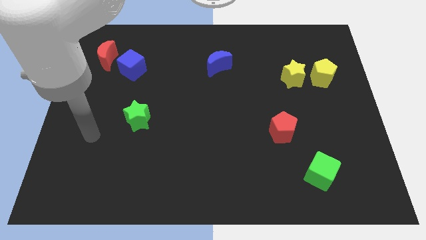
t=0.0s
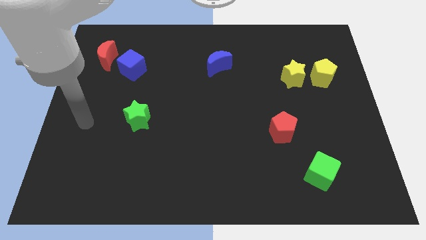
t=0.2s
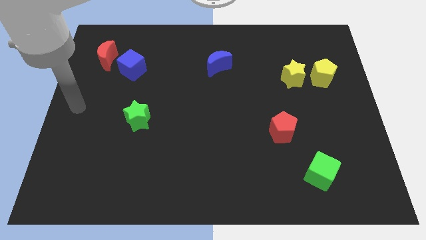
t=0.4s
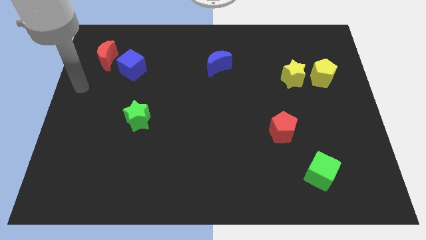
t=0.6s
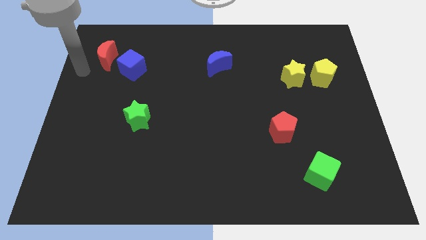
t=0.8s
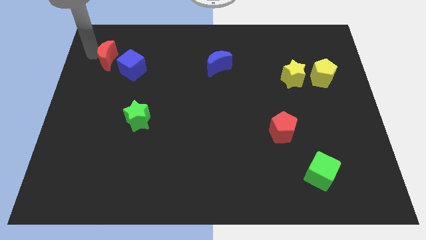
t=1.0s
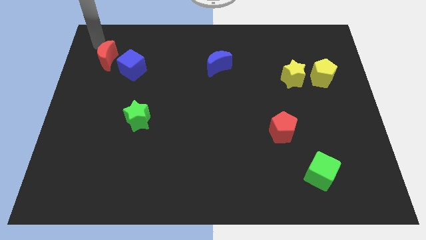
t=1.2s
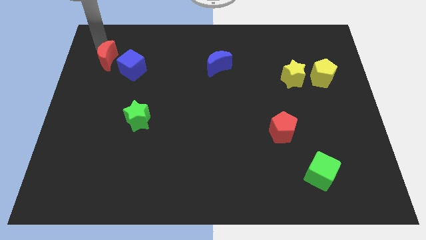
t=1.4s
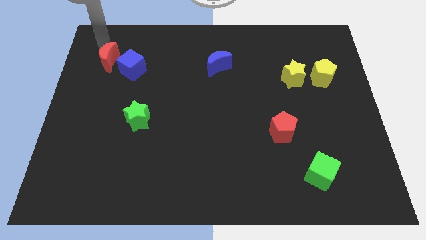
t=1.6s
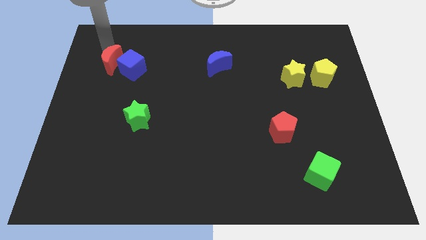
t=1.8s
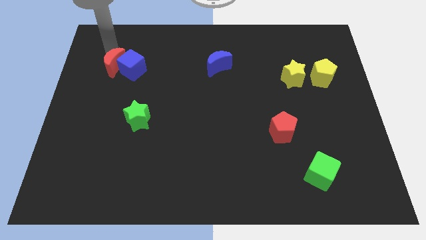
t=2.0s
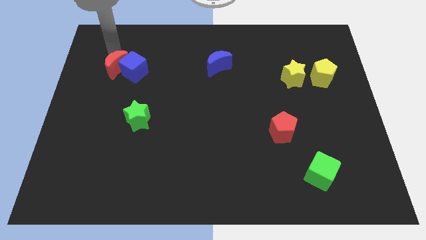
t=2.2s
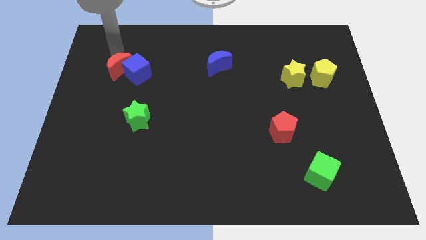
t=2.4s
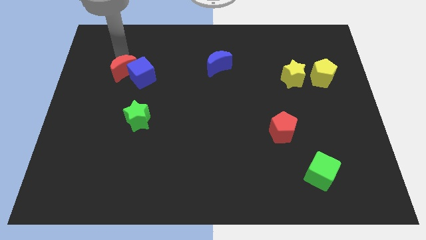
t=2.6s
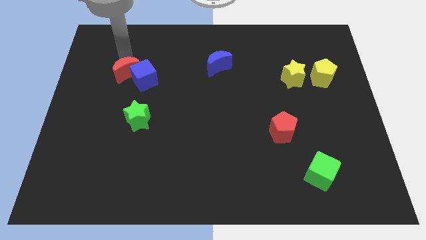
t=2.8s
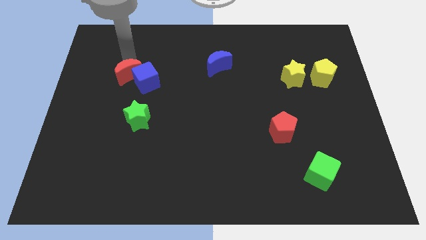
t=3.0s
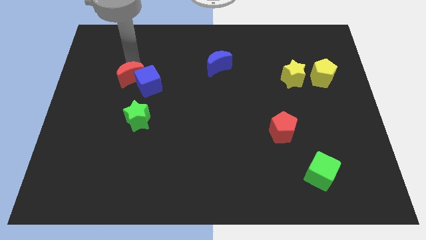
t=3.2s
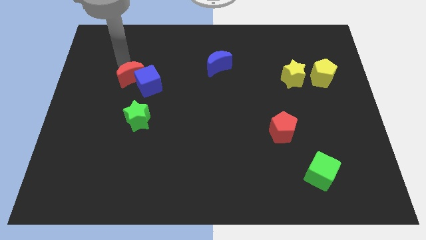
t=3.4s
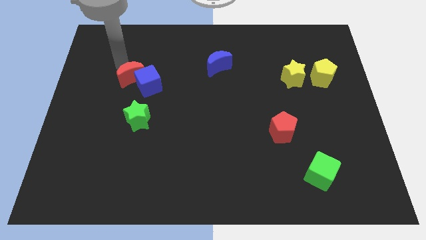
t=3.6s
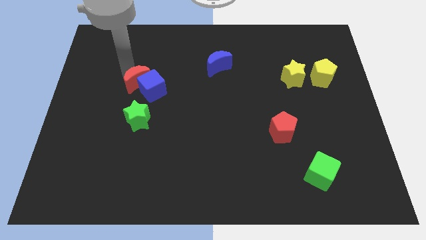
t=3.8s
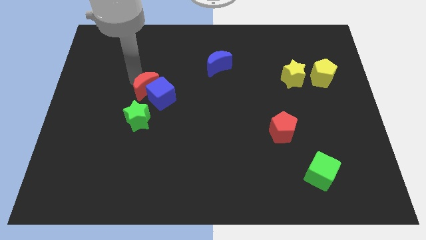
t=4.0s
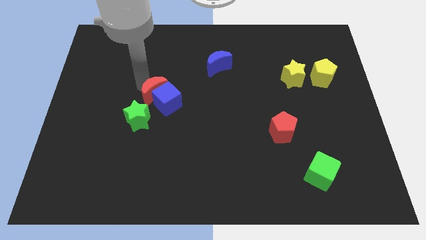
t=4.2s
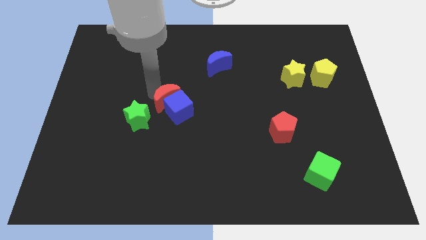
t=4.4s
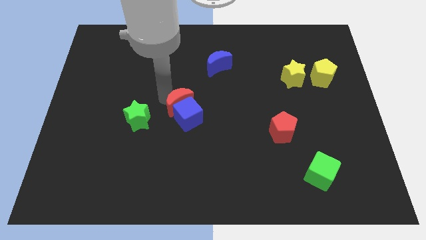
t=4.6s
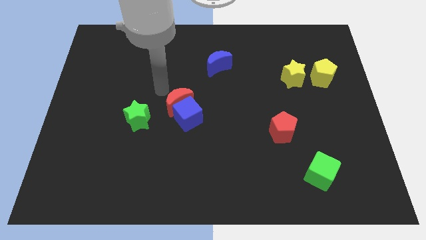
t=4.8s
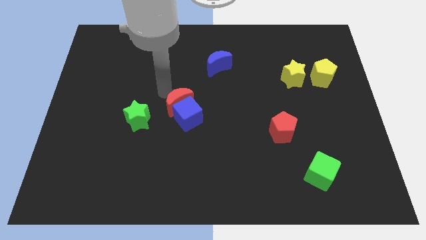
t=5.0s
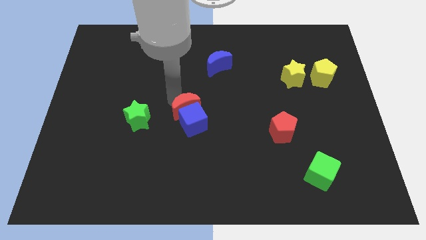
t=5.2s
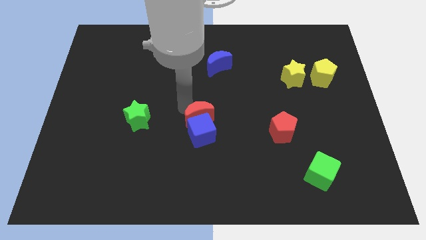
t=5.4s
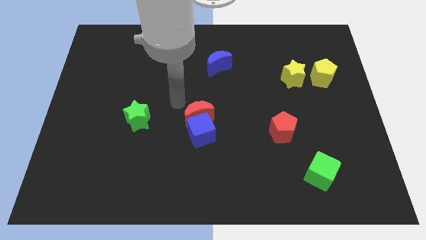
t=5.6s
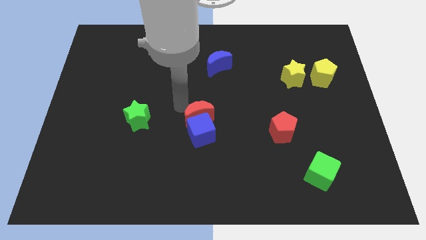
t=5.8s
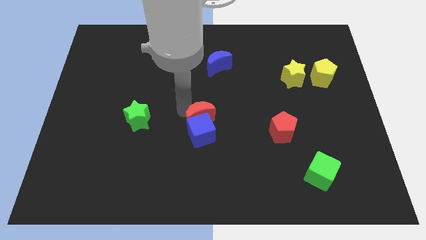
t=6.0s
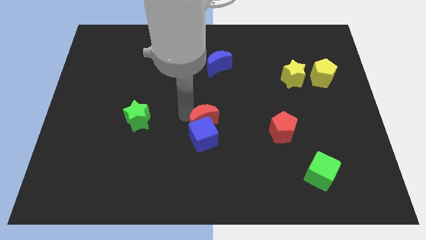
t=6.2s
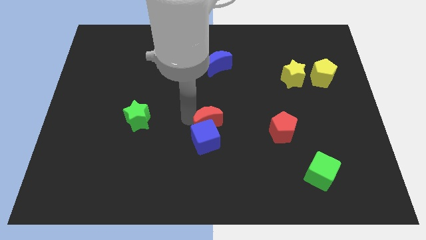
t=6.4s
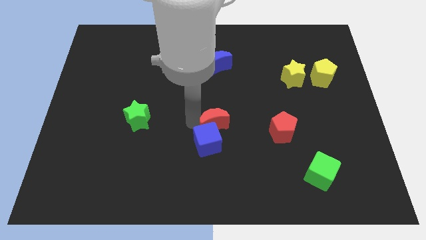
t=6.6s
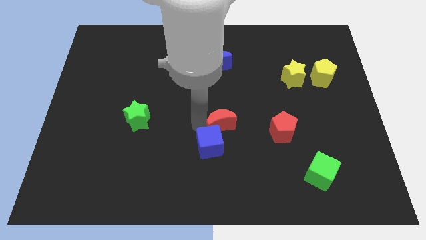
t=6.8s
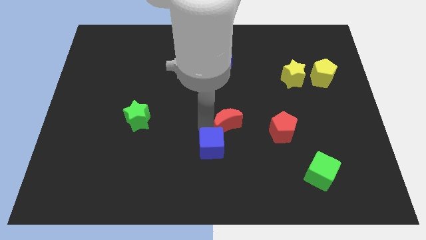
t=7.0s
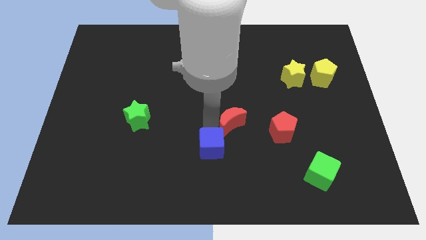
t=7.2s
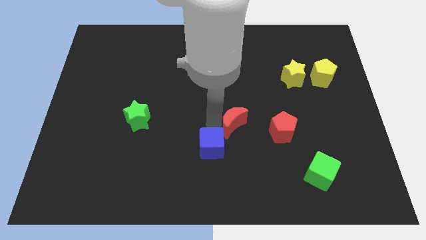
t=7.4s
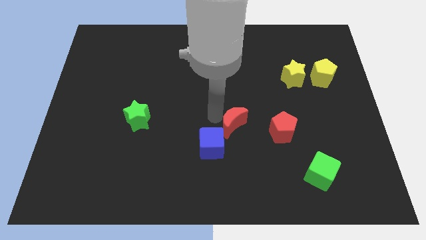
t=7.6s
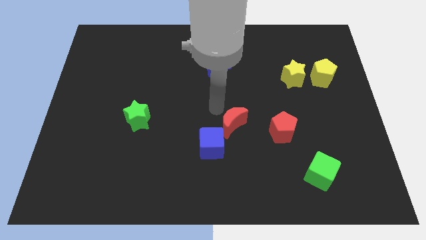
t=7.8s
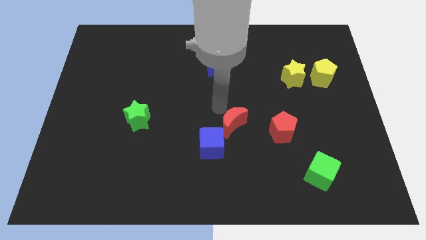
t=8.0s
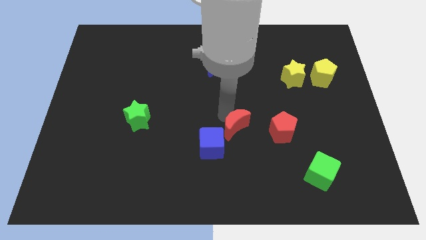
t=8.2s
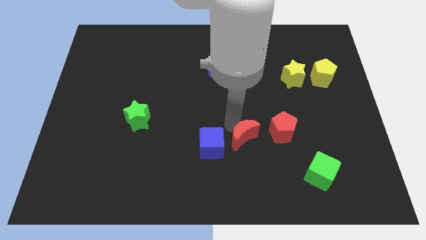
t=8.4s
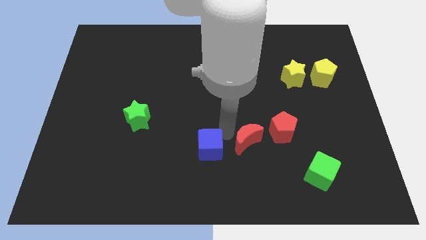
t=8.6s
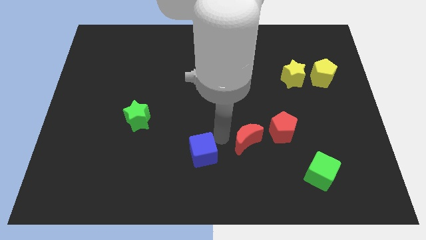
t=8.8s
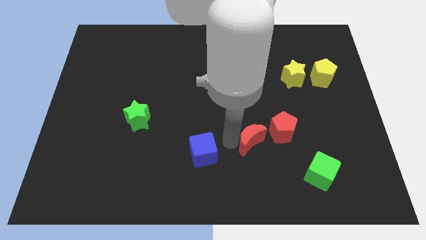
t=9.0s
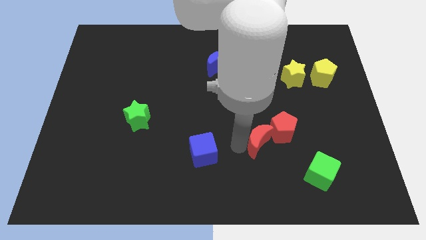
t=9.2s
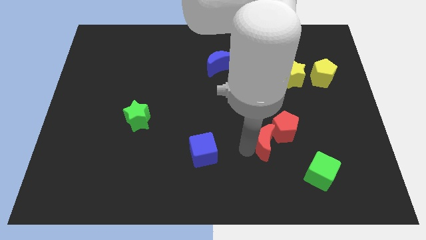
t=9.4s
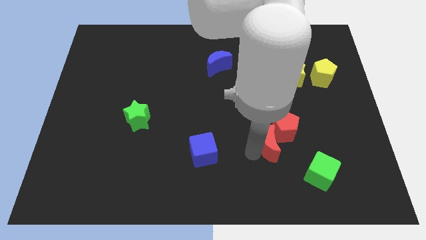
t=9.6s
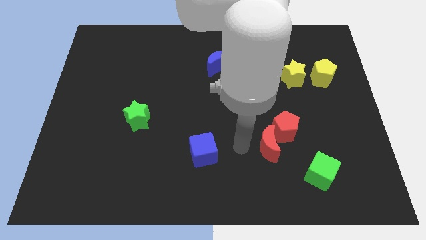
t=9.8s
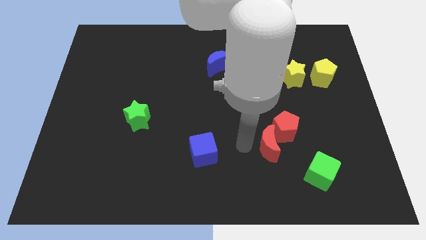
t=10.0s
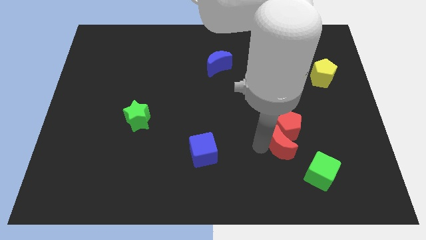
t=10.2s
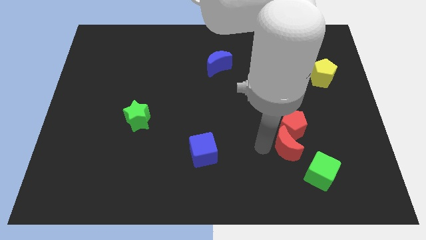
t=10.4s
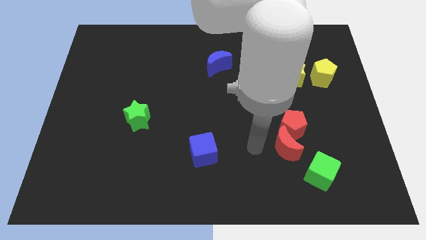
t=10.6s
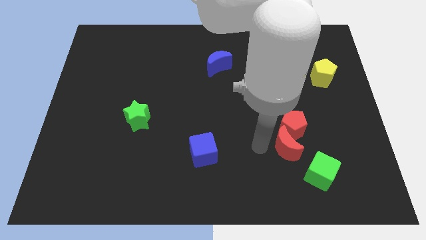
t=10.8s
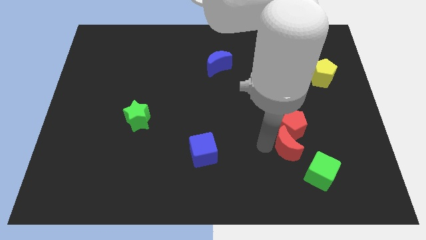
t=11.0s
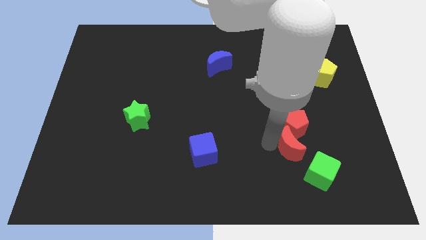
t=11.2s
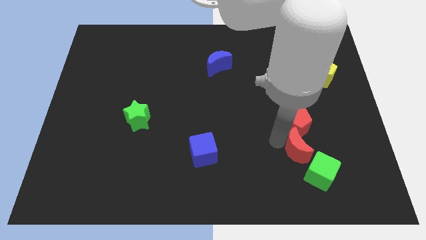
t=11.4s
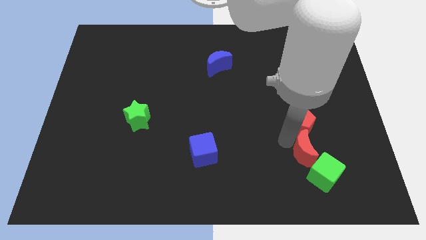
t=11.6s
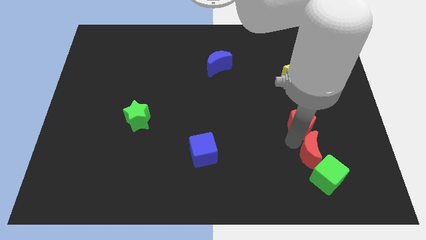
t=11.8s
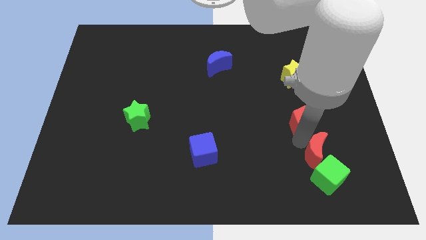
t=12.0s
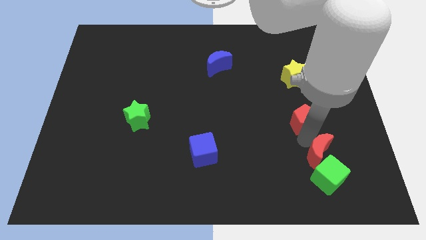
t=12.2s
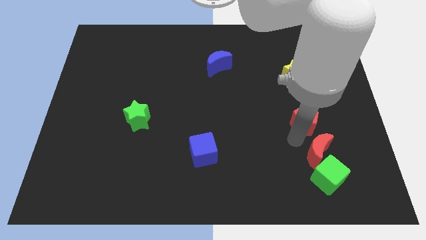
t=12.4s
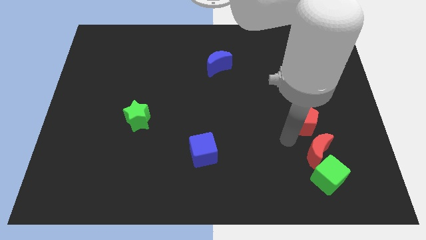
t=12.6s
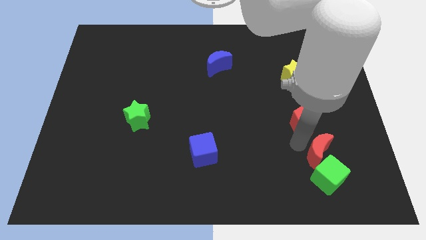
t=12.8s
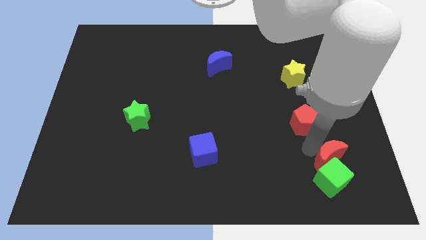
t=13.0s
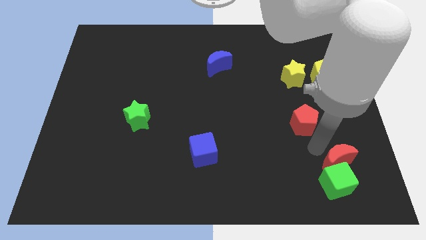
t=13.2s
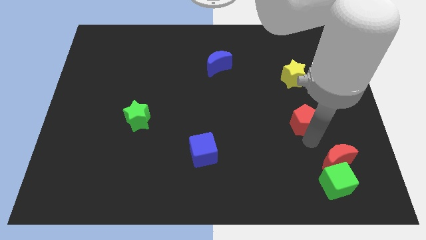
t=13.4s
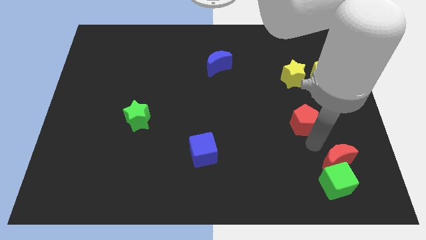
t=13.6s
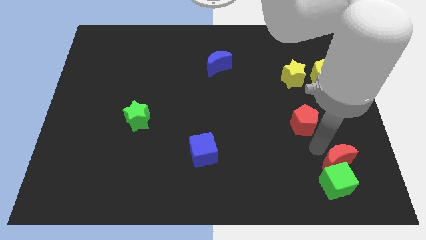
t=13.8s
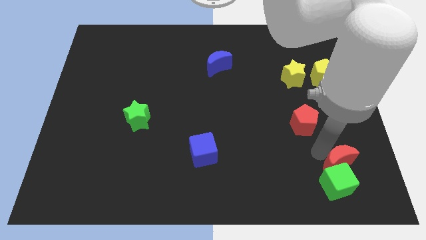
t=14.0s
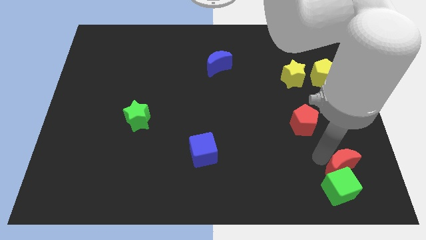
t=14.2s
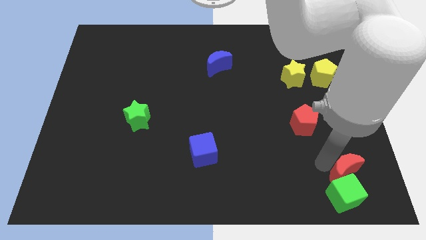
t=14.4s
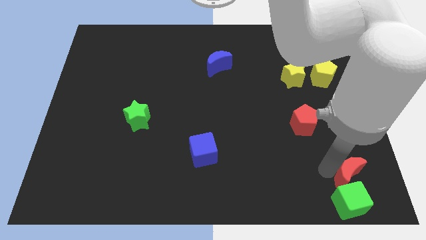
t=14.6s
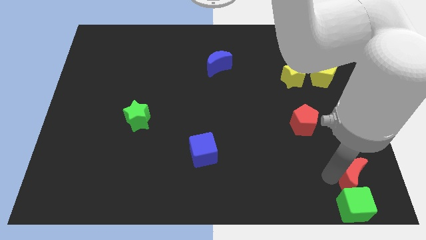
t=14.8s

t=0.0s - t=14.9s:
slide the red moon to the lower right corner
